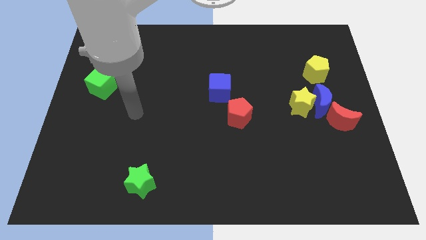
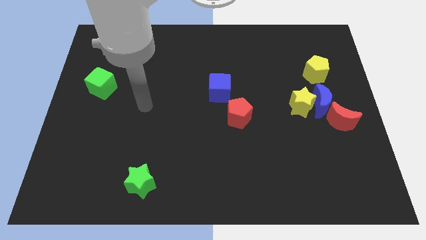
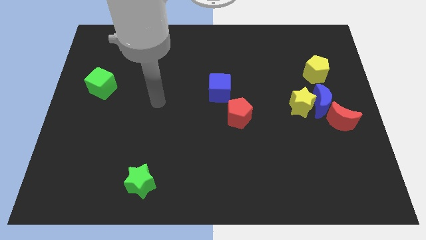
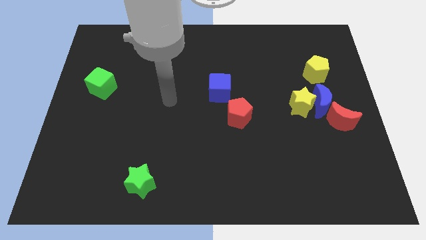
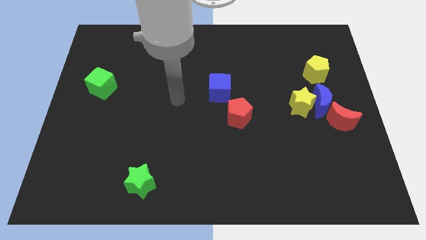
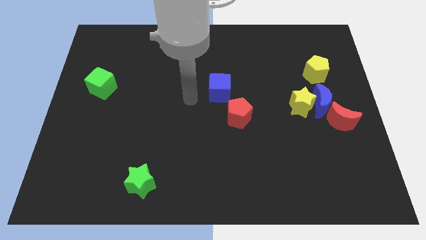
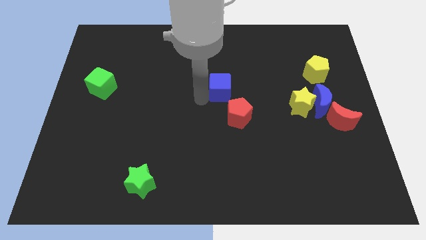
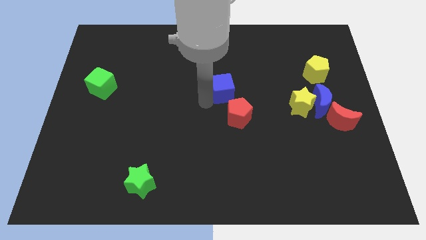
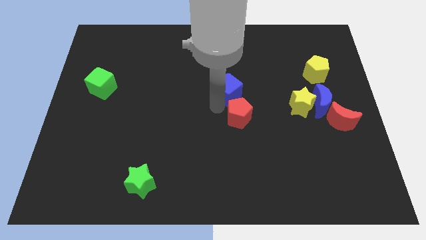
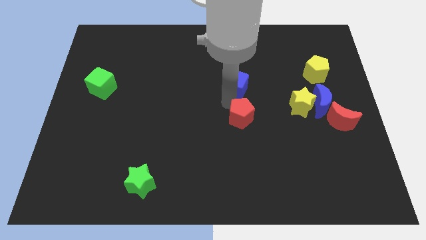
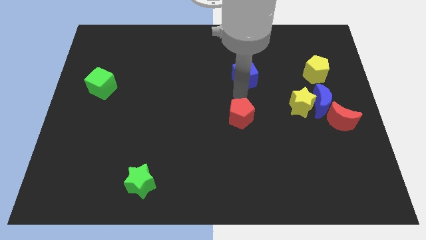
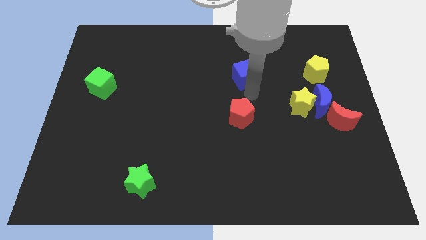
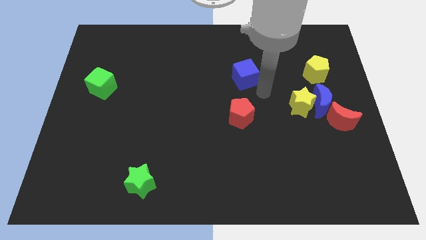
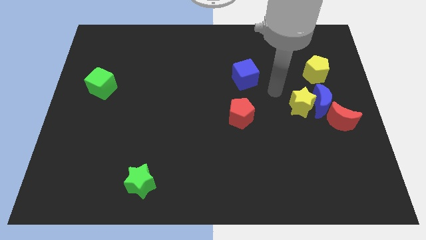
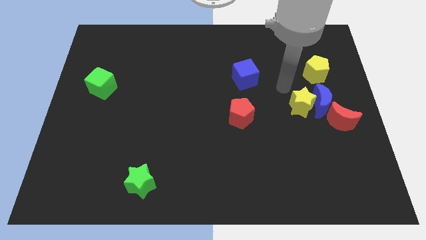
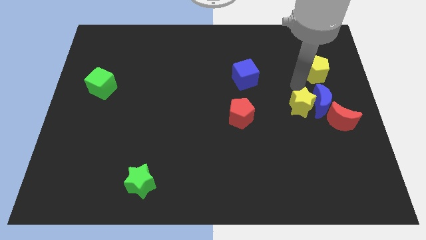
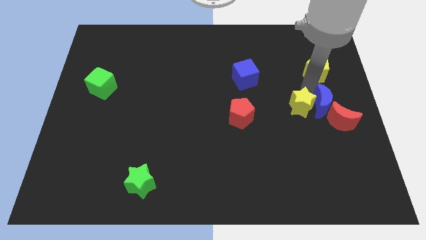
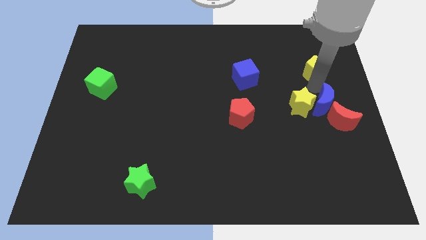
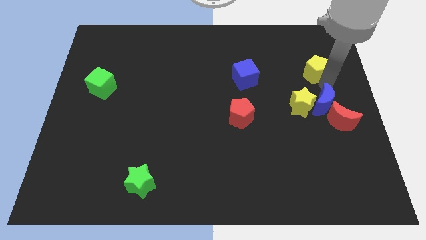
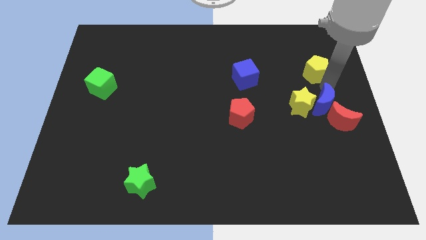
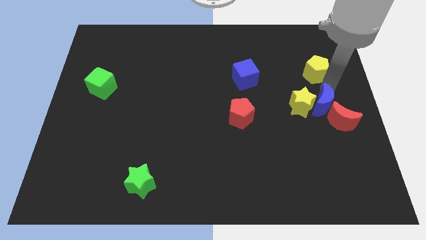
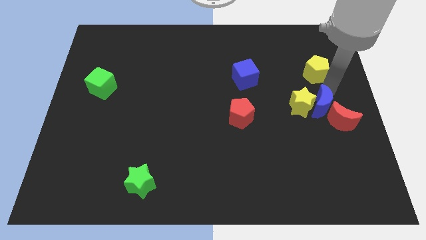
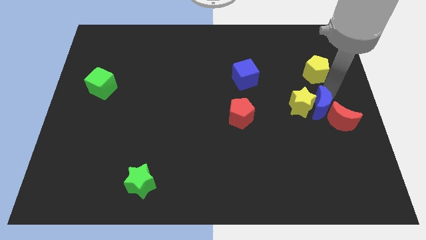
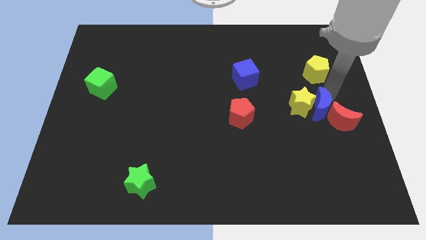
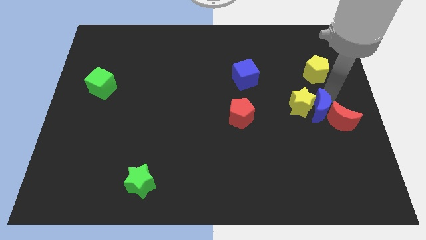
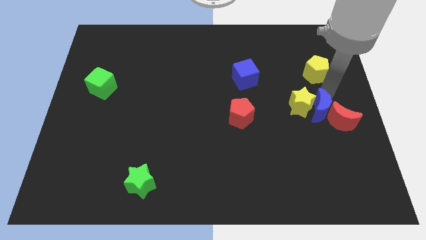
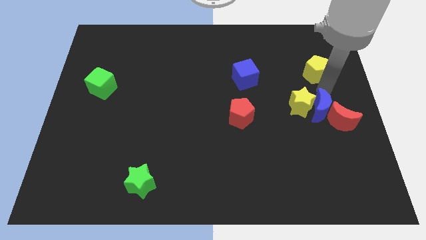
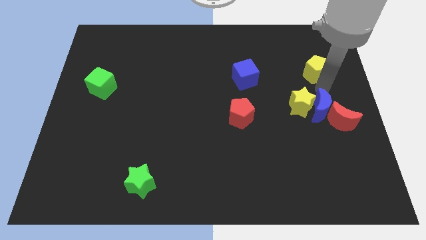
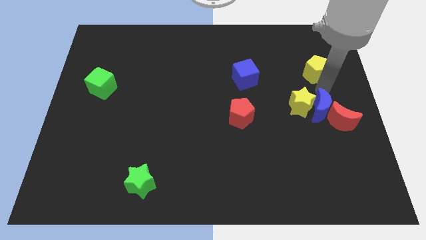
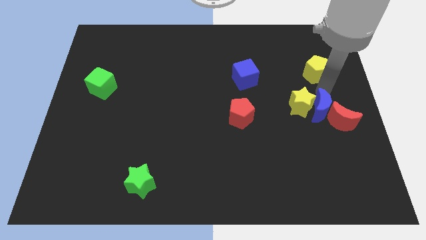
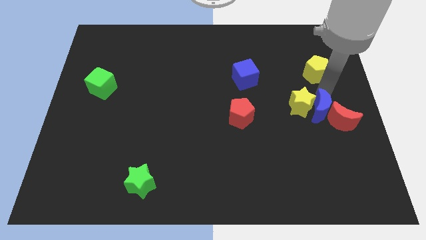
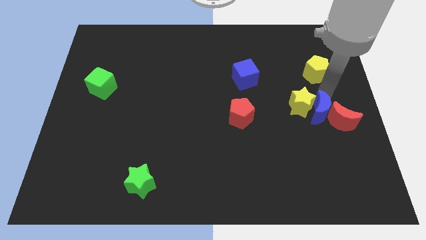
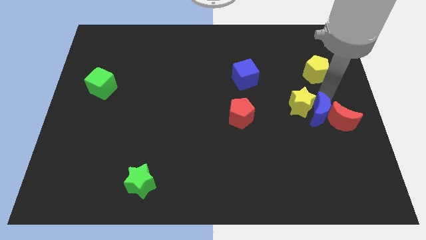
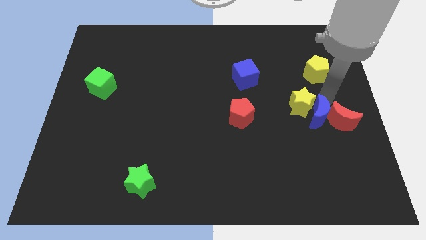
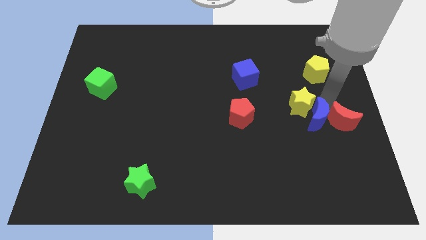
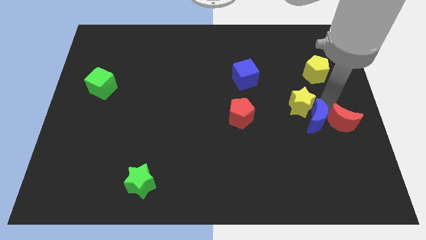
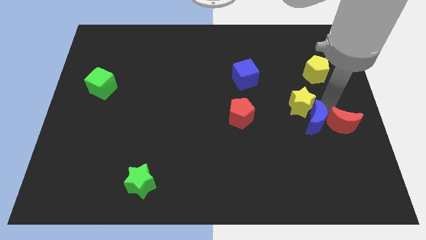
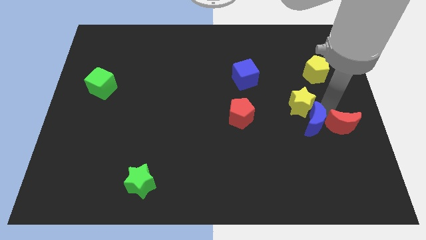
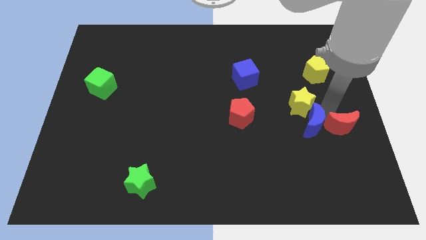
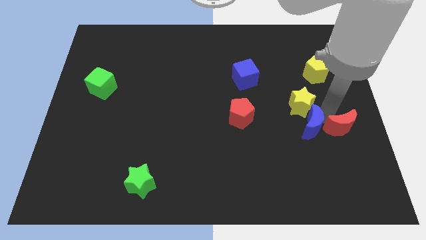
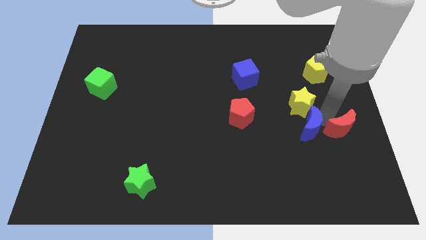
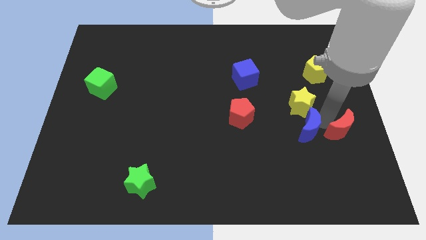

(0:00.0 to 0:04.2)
push the blue moon down somewhat

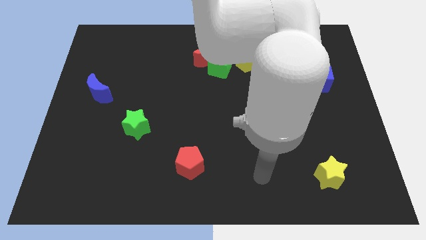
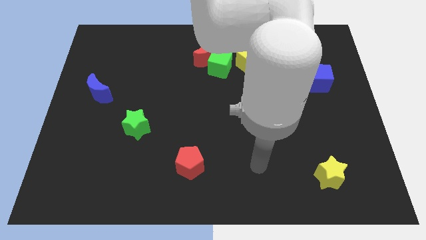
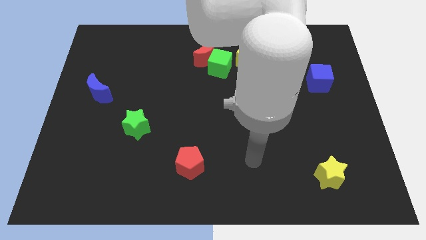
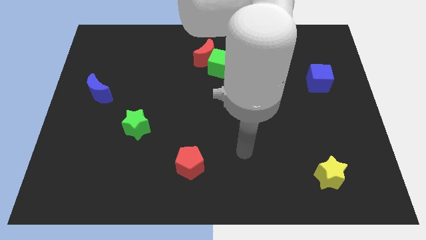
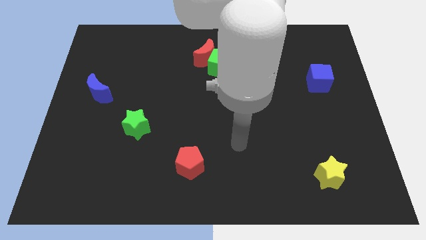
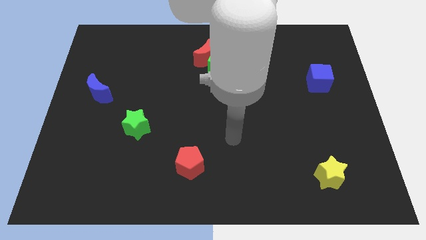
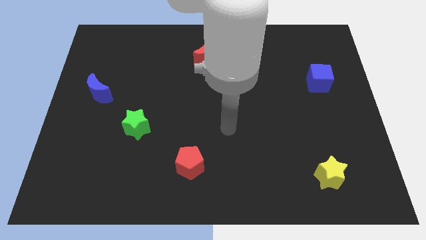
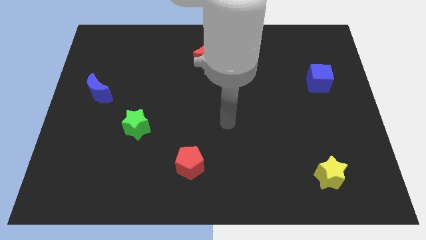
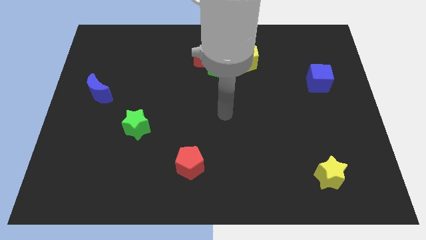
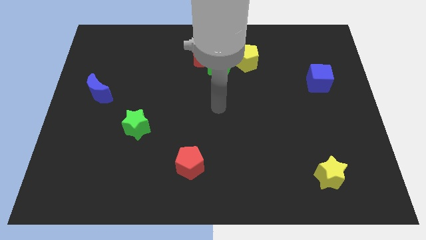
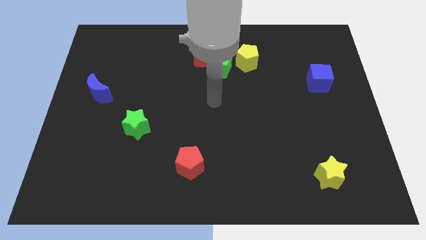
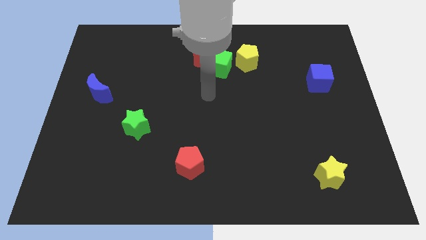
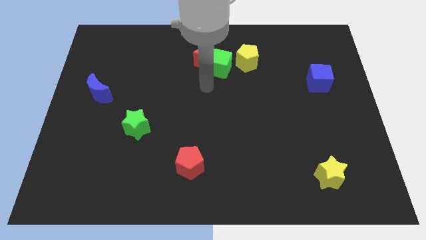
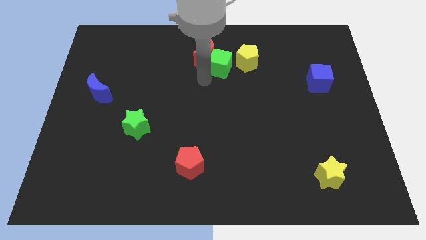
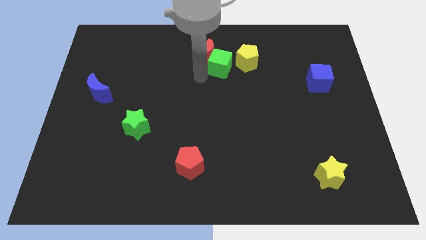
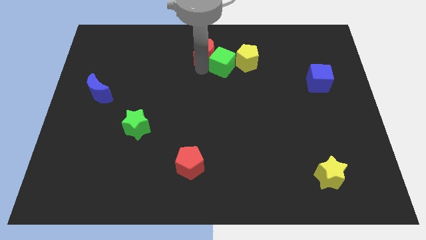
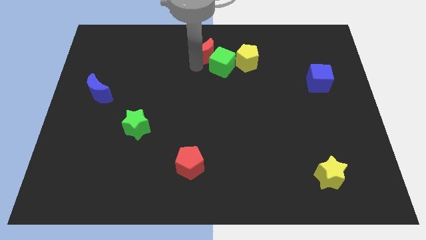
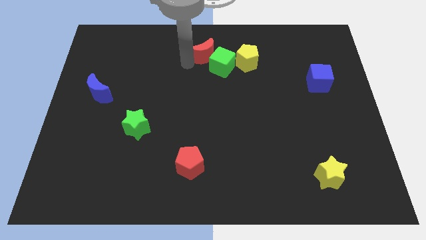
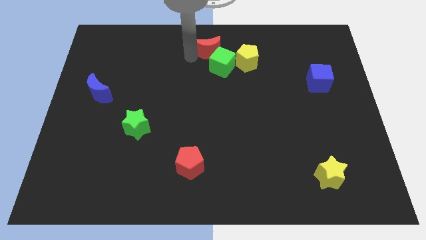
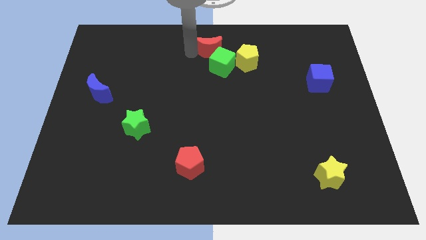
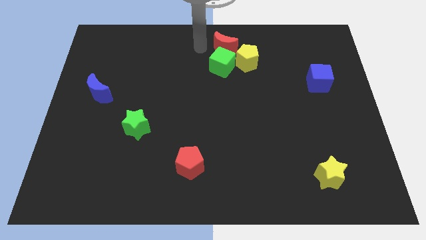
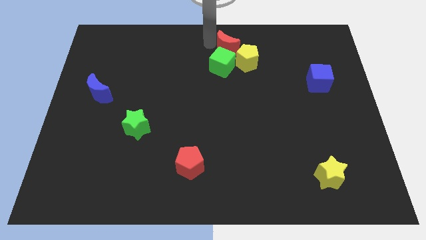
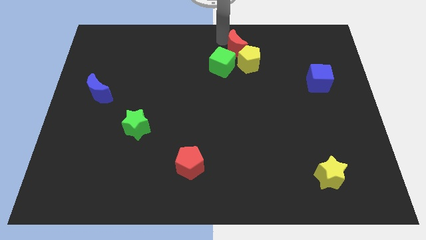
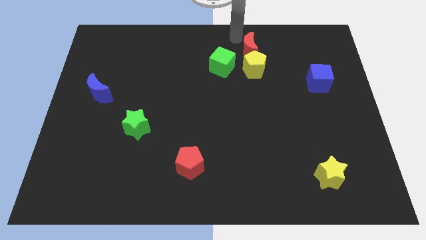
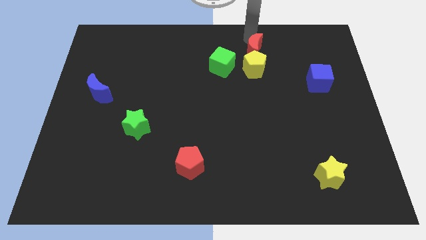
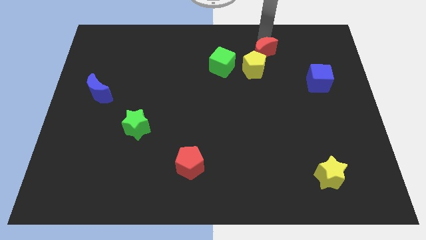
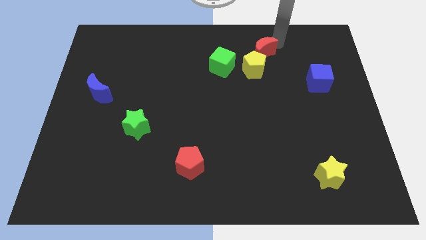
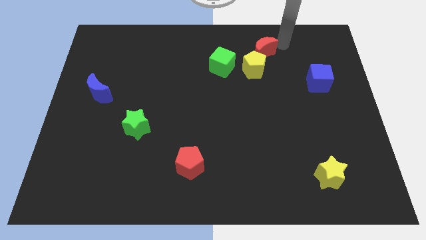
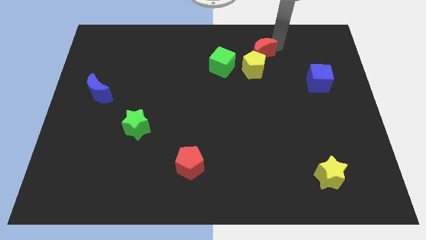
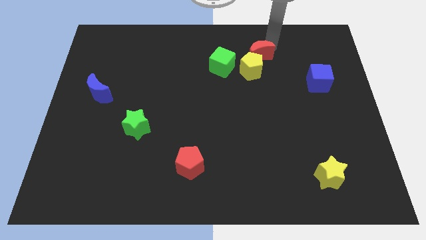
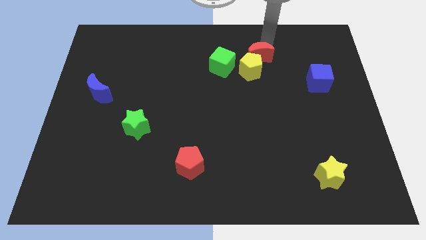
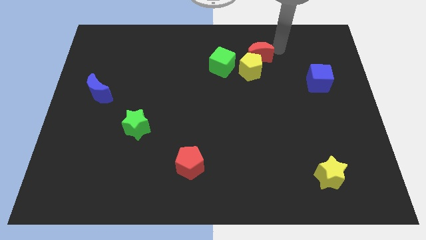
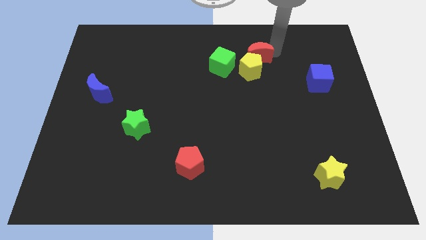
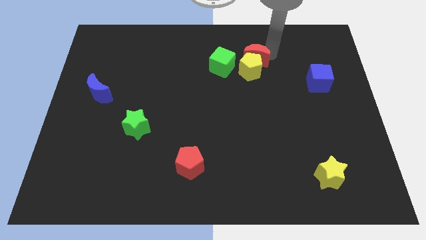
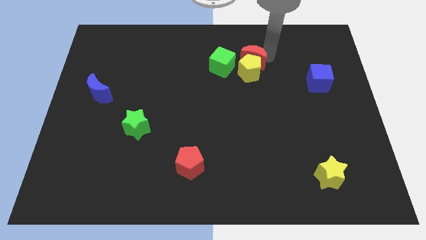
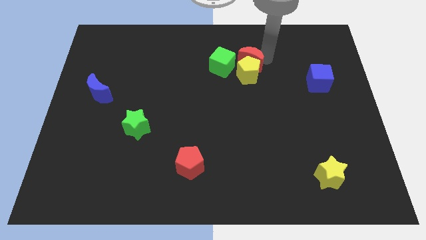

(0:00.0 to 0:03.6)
slightly slide the red moon downwards and right diagonally

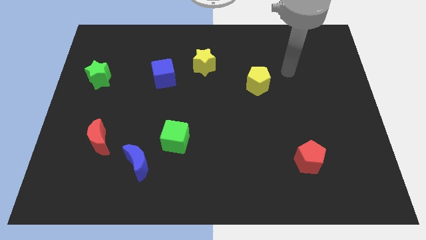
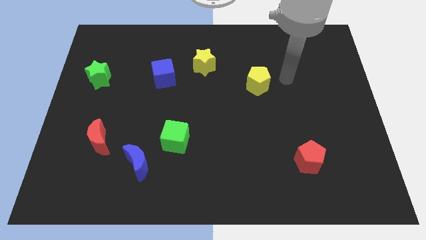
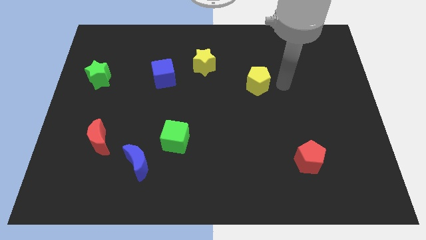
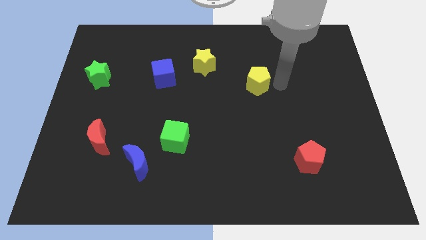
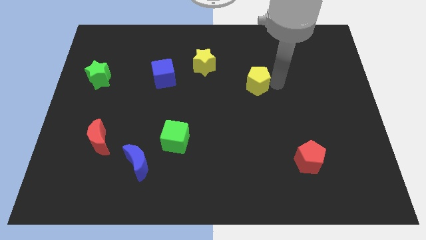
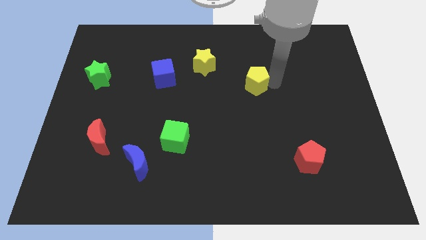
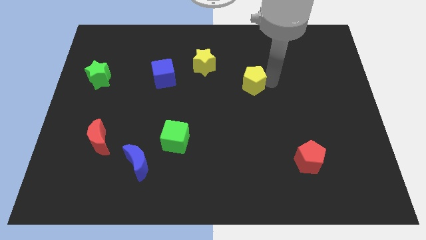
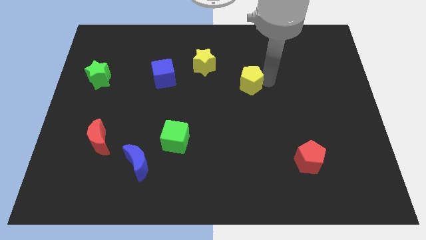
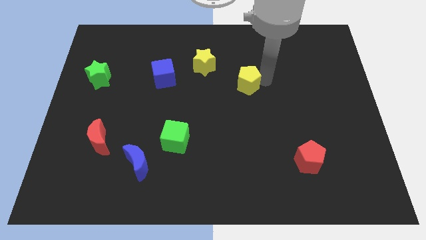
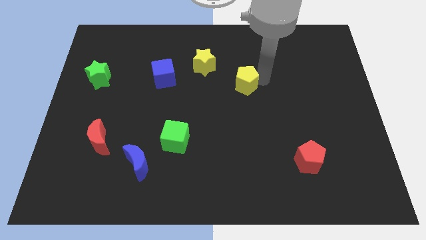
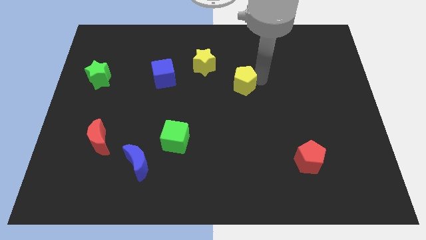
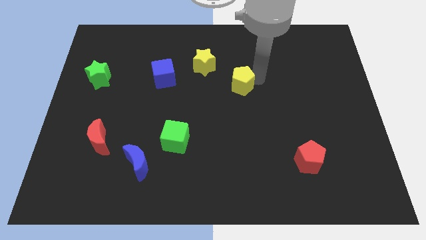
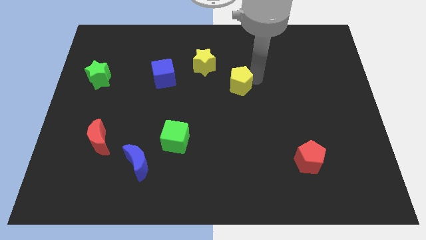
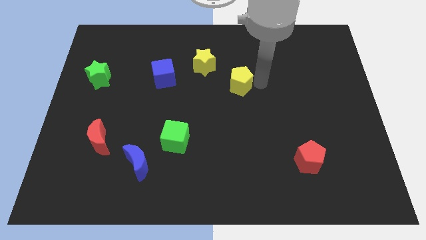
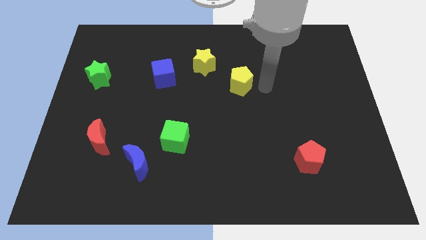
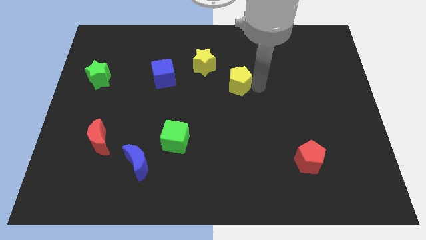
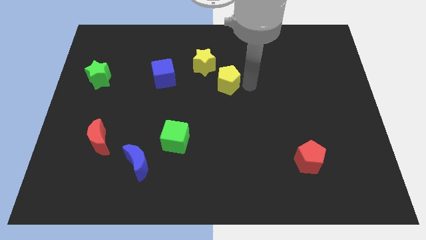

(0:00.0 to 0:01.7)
slide the yellow pentagon somewhat left
